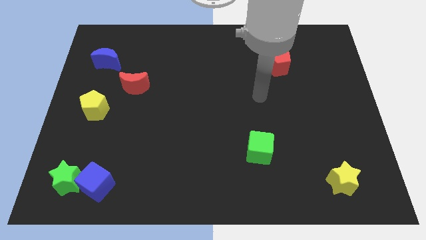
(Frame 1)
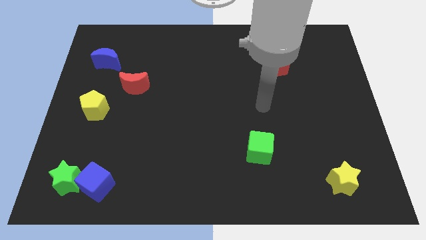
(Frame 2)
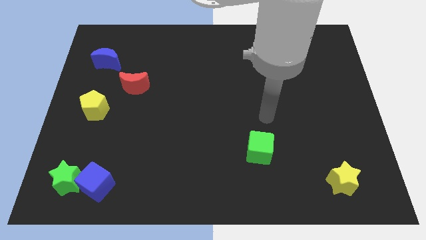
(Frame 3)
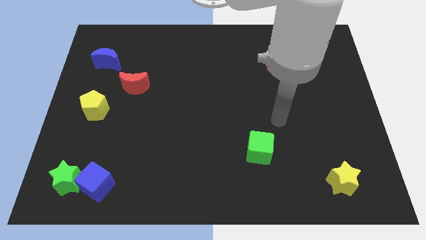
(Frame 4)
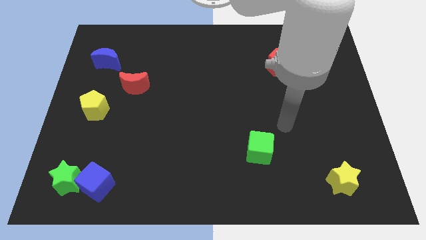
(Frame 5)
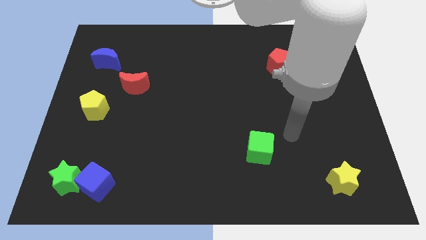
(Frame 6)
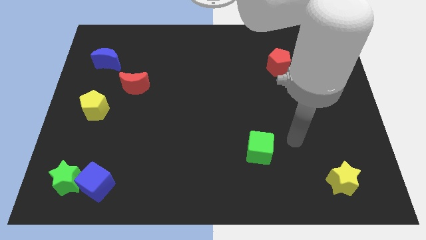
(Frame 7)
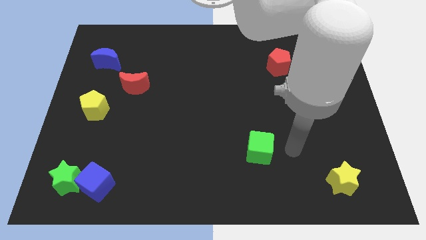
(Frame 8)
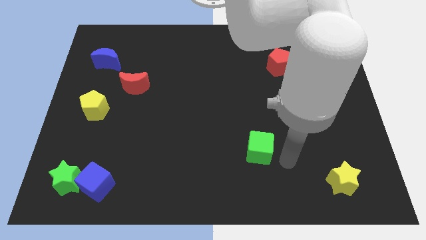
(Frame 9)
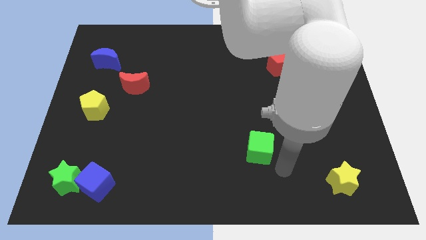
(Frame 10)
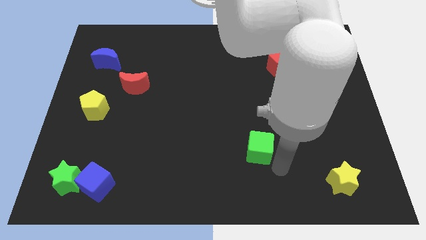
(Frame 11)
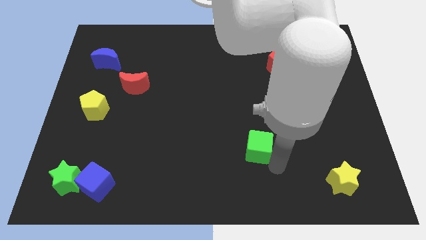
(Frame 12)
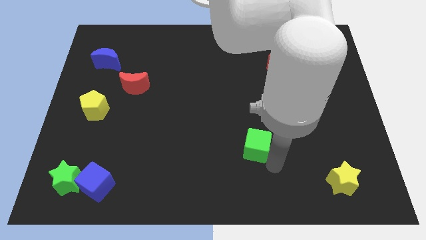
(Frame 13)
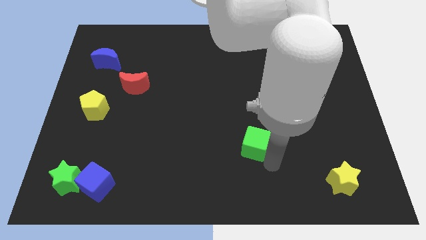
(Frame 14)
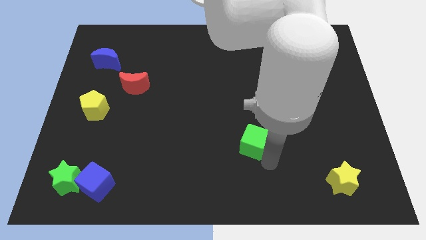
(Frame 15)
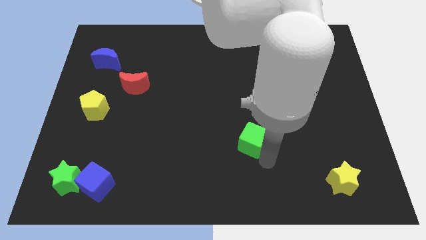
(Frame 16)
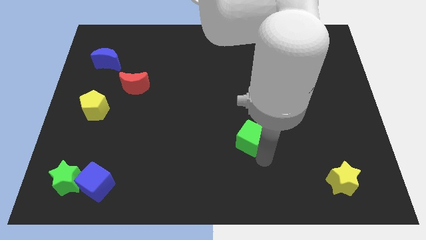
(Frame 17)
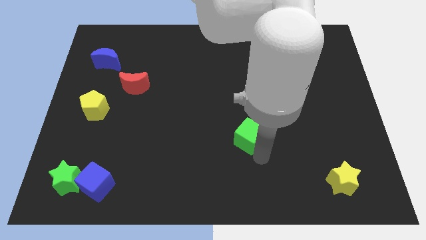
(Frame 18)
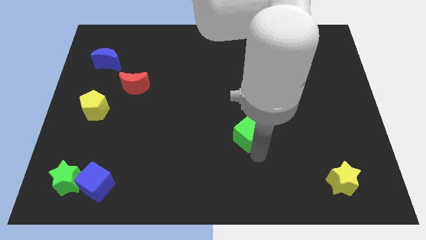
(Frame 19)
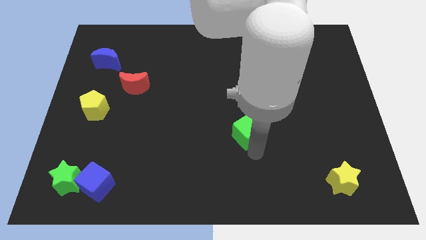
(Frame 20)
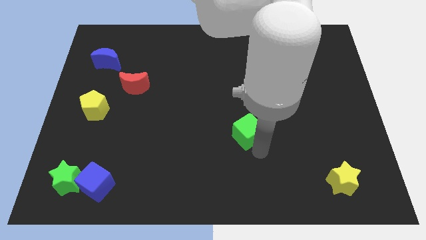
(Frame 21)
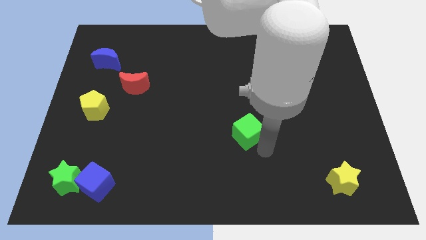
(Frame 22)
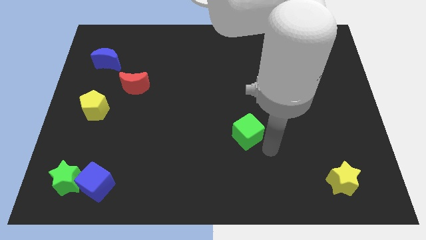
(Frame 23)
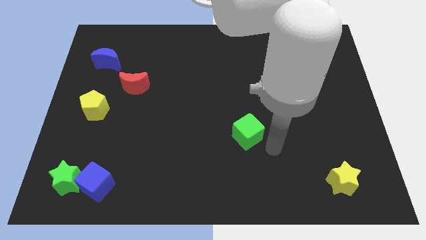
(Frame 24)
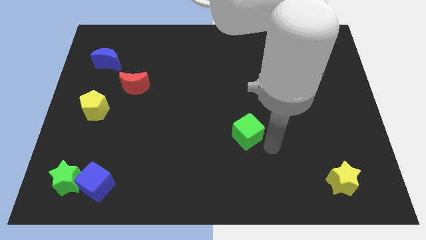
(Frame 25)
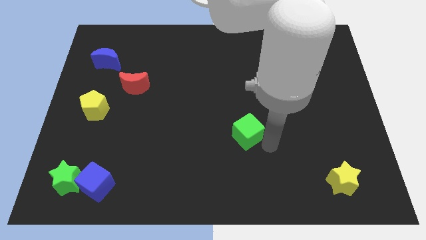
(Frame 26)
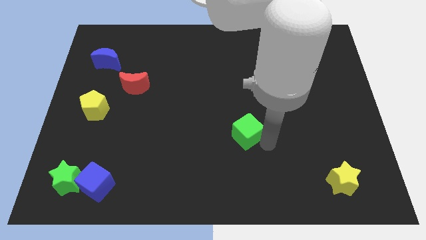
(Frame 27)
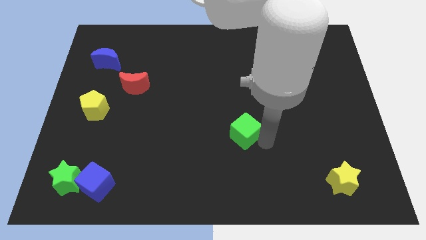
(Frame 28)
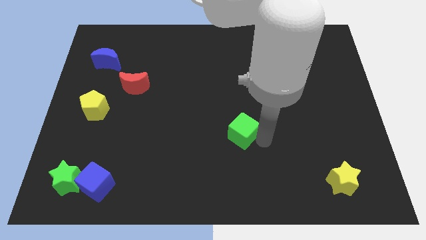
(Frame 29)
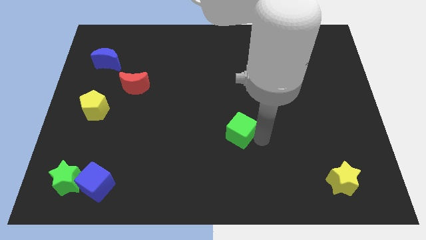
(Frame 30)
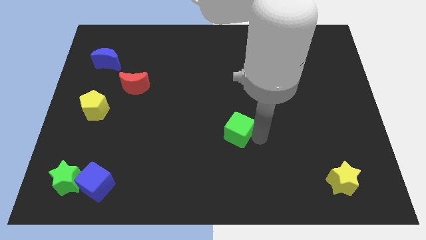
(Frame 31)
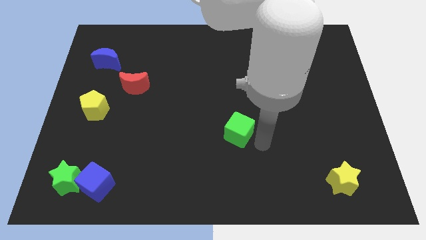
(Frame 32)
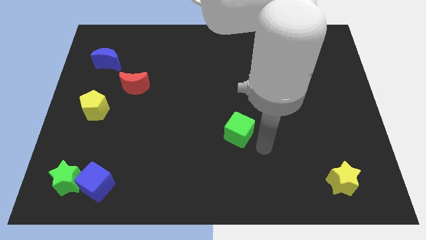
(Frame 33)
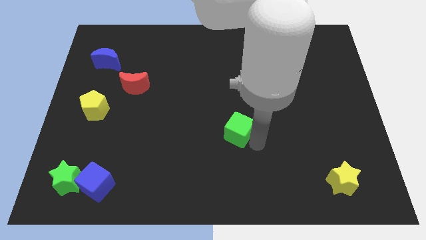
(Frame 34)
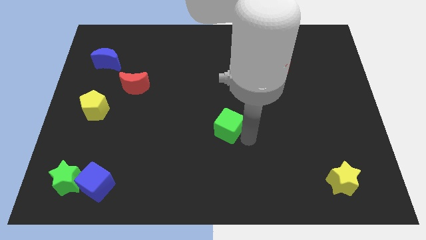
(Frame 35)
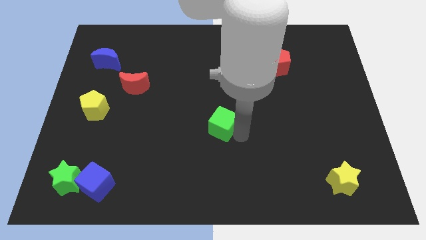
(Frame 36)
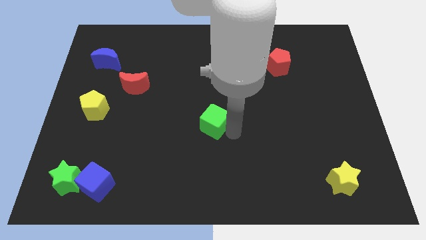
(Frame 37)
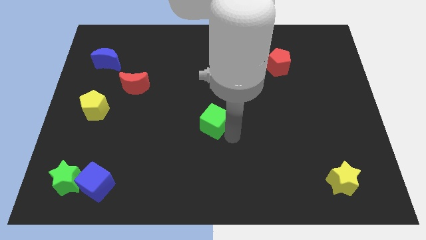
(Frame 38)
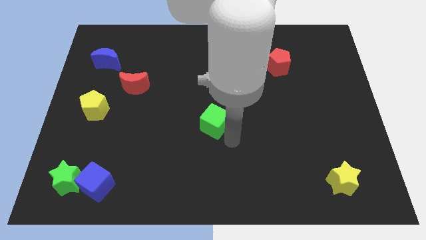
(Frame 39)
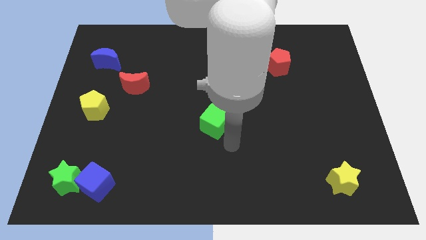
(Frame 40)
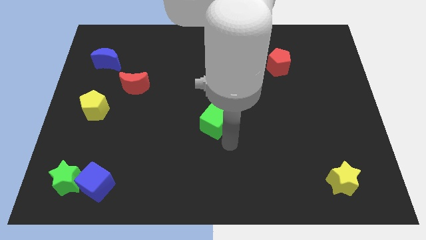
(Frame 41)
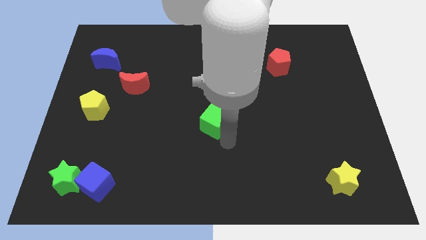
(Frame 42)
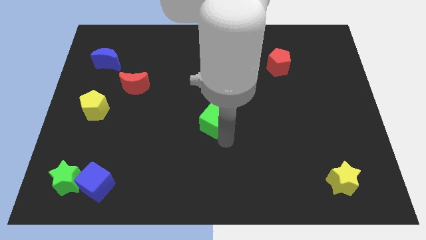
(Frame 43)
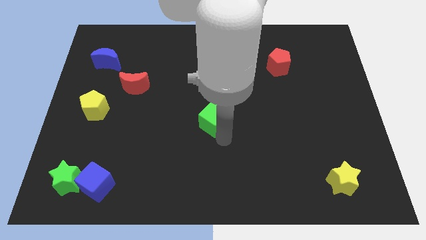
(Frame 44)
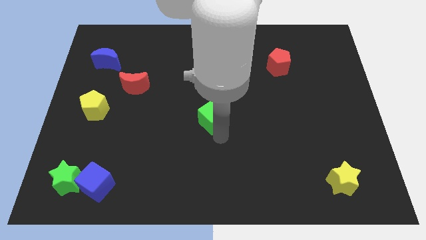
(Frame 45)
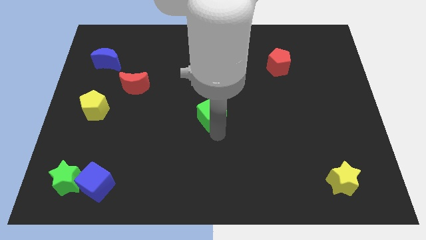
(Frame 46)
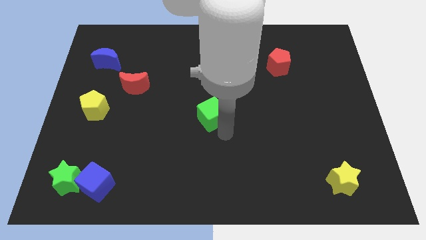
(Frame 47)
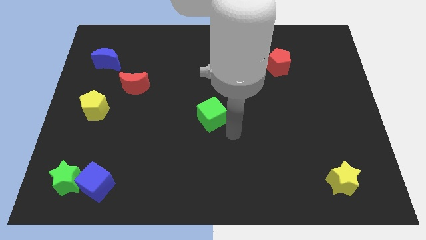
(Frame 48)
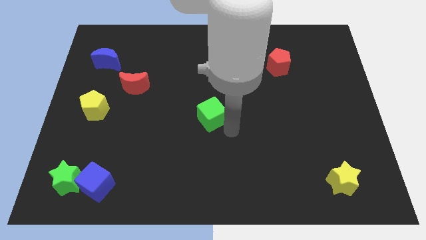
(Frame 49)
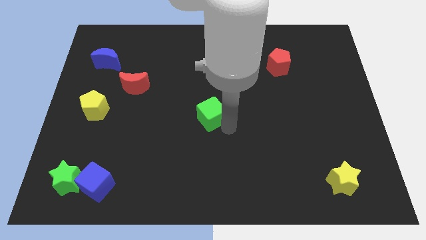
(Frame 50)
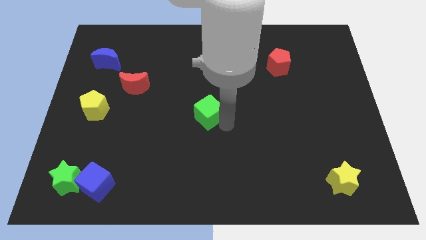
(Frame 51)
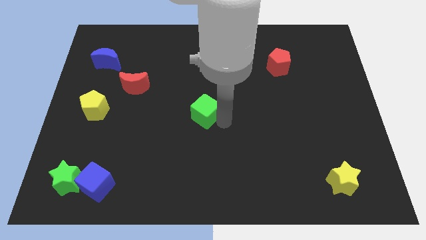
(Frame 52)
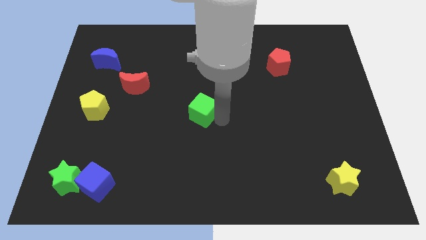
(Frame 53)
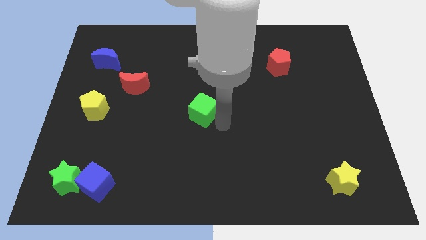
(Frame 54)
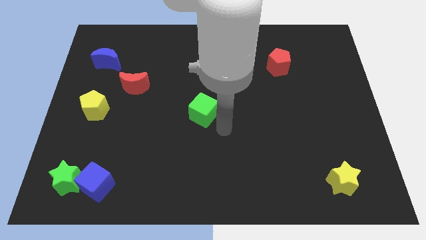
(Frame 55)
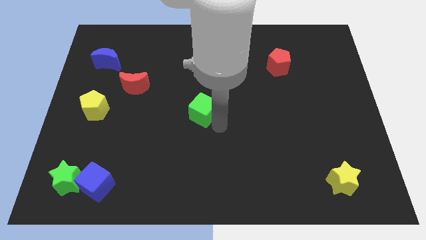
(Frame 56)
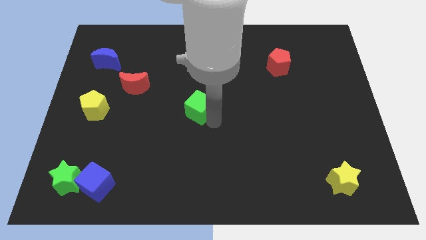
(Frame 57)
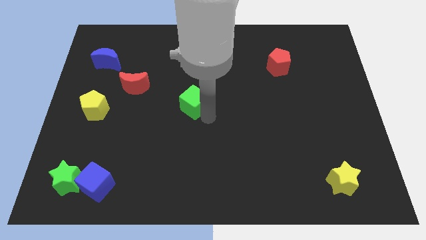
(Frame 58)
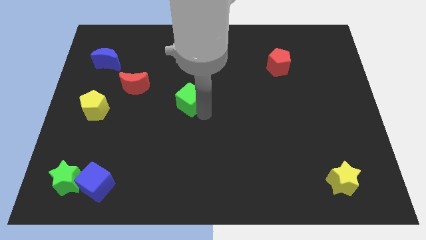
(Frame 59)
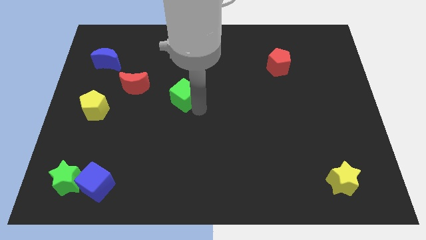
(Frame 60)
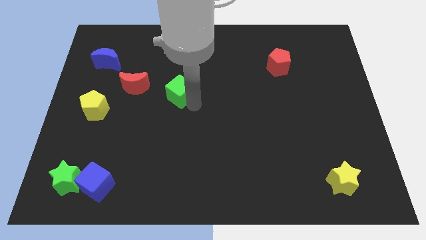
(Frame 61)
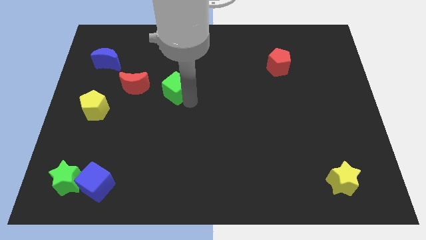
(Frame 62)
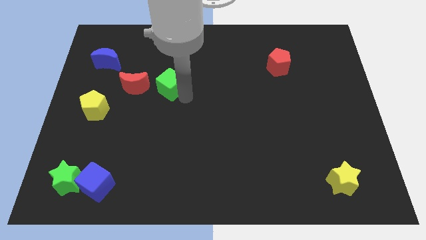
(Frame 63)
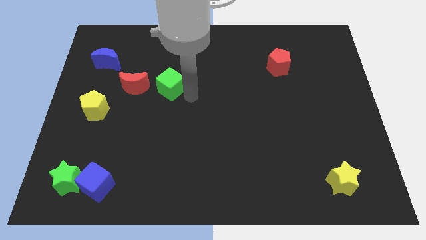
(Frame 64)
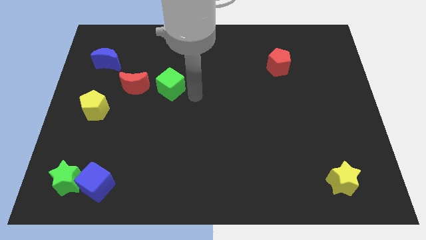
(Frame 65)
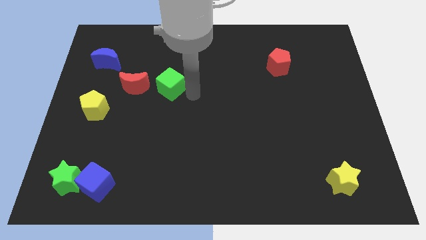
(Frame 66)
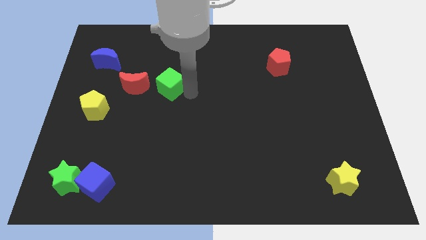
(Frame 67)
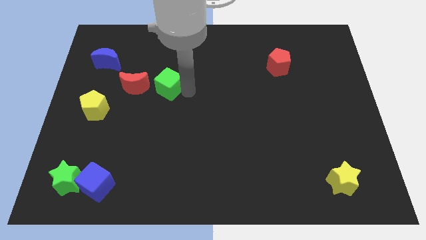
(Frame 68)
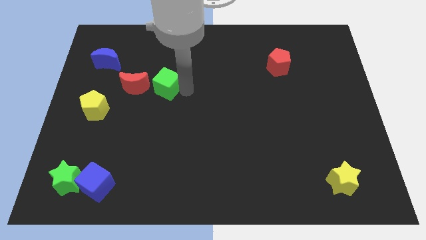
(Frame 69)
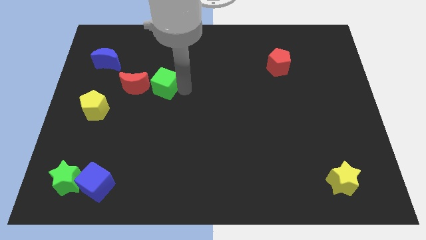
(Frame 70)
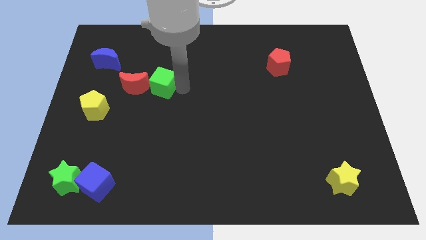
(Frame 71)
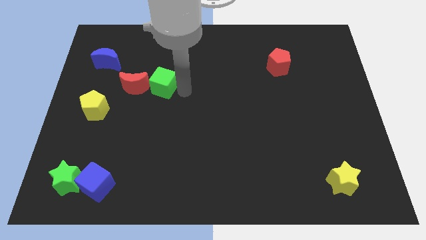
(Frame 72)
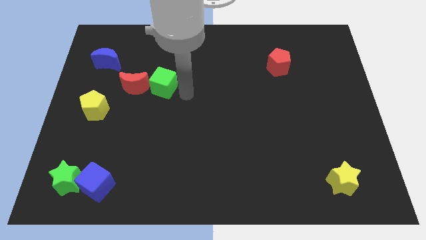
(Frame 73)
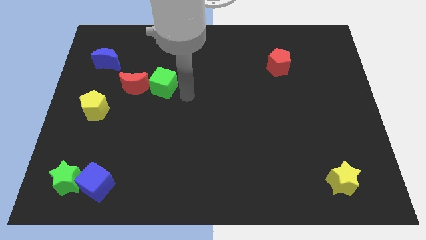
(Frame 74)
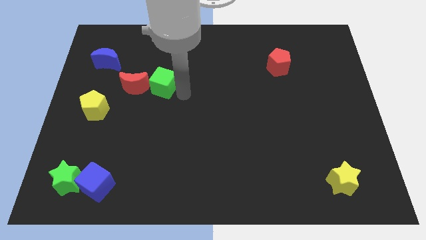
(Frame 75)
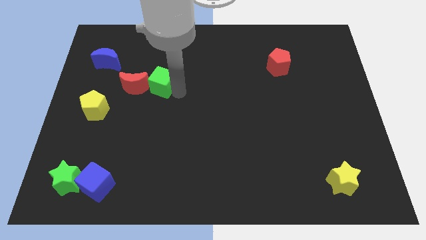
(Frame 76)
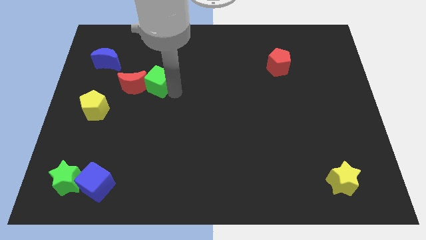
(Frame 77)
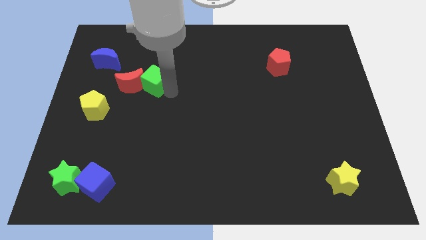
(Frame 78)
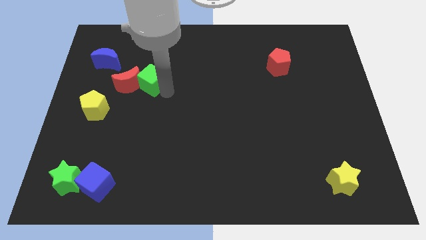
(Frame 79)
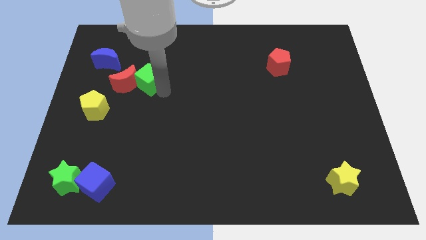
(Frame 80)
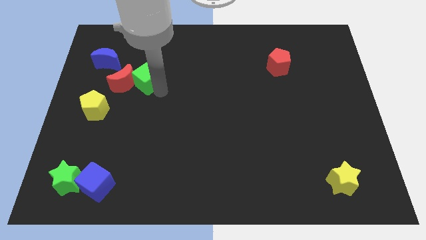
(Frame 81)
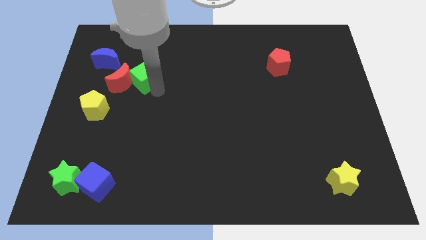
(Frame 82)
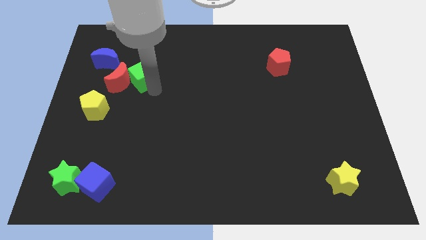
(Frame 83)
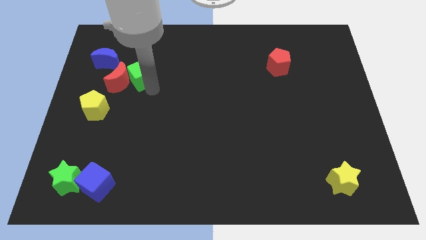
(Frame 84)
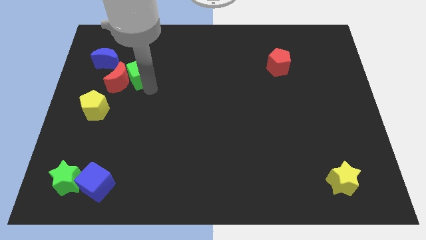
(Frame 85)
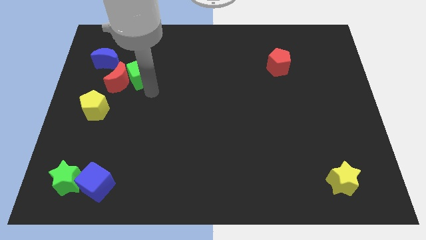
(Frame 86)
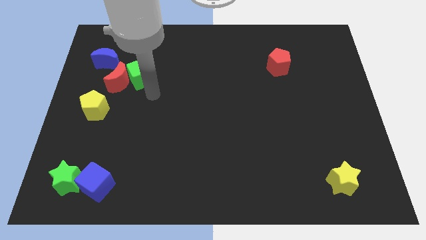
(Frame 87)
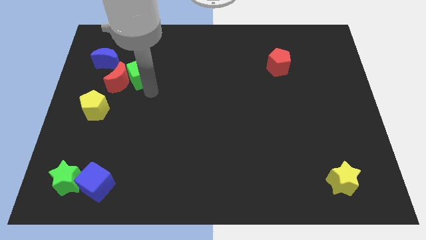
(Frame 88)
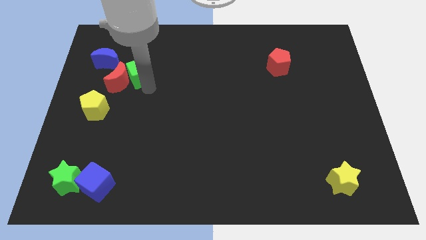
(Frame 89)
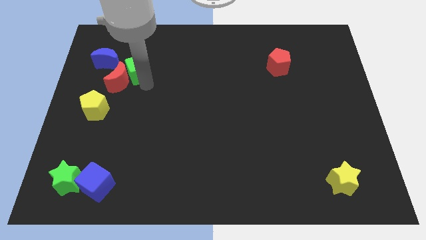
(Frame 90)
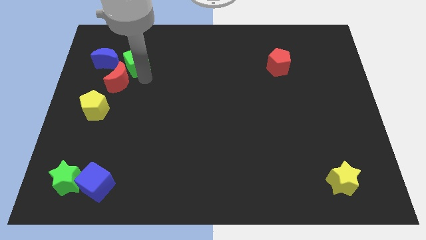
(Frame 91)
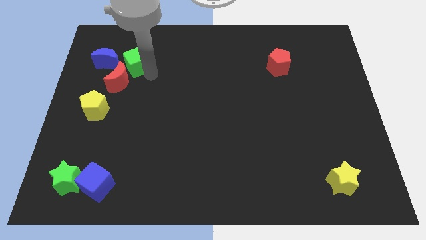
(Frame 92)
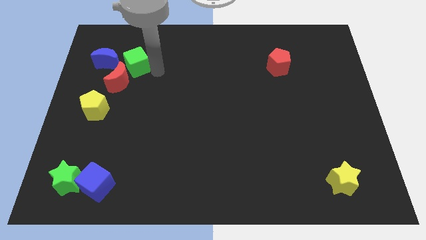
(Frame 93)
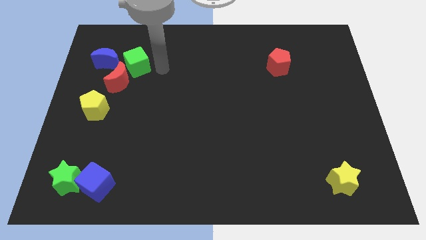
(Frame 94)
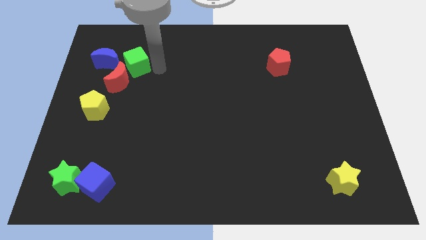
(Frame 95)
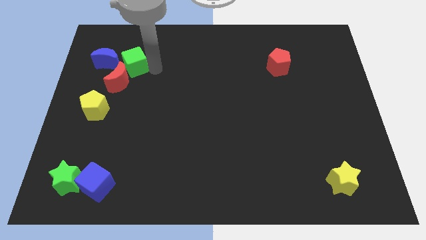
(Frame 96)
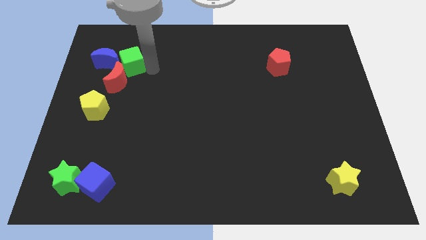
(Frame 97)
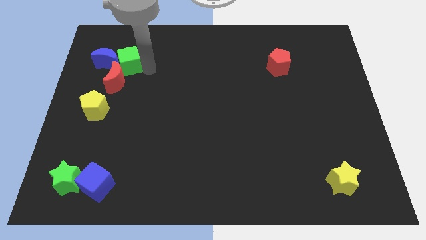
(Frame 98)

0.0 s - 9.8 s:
push the green cube to the blue moon
